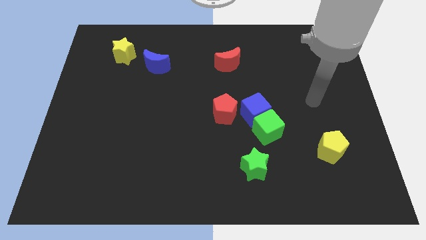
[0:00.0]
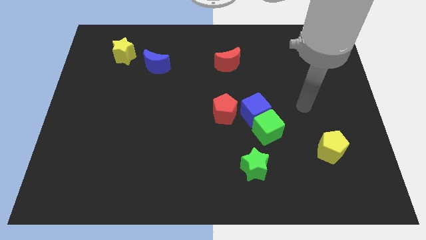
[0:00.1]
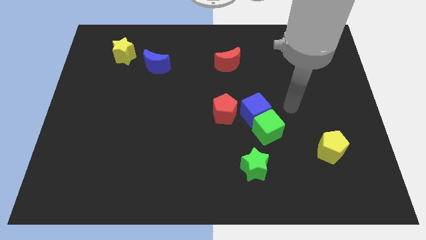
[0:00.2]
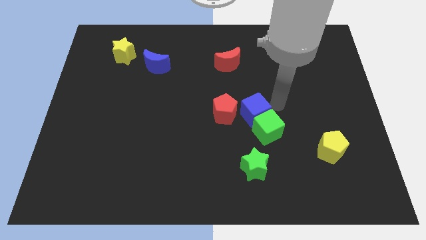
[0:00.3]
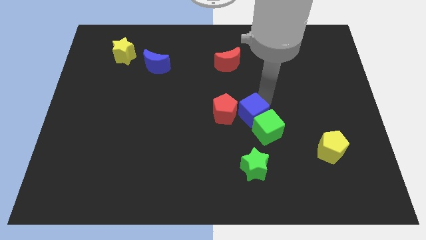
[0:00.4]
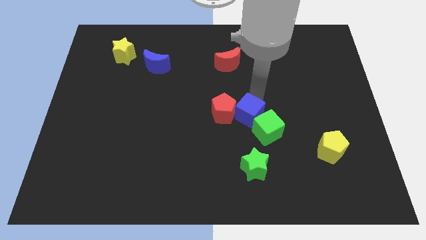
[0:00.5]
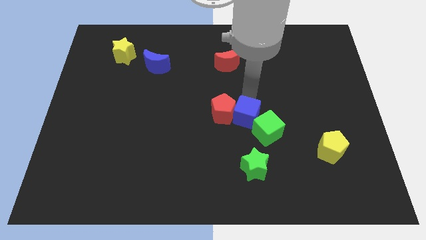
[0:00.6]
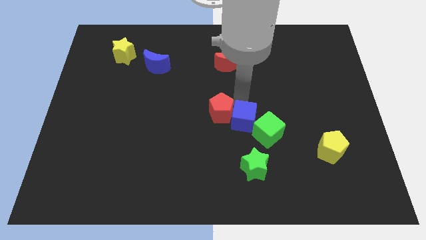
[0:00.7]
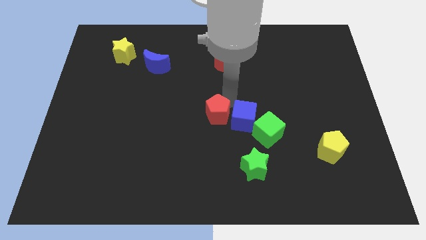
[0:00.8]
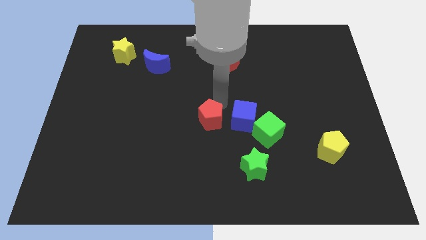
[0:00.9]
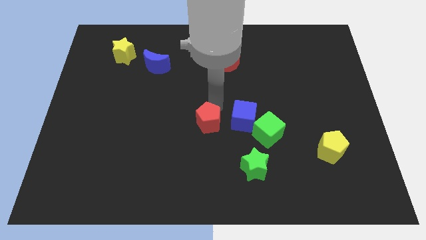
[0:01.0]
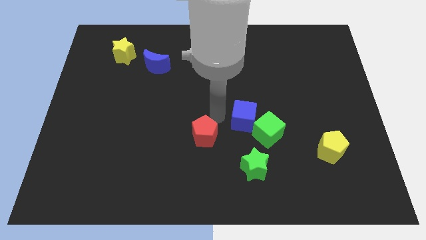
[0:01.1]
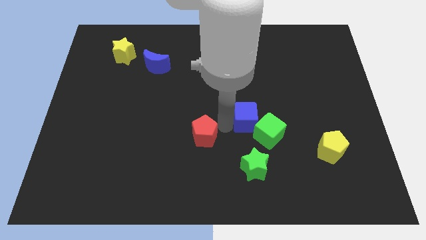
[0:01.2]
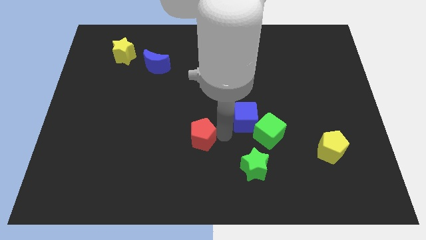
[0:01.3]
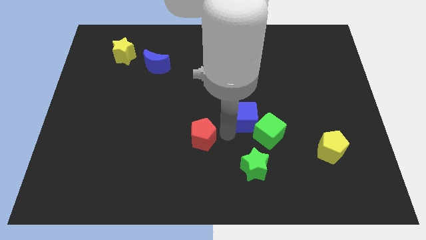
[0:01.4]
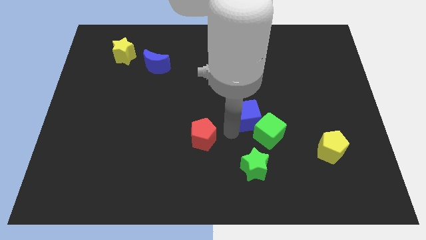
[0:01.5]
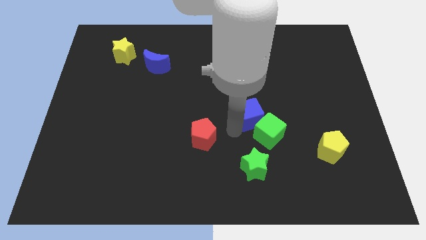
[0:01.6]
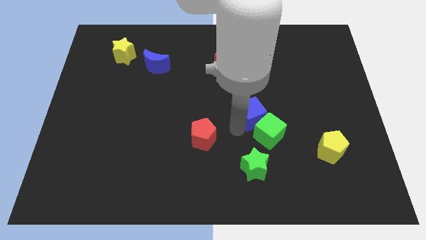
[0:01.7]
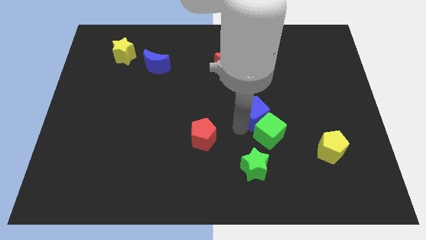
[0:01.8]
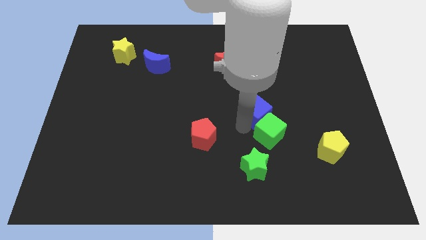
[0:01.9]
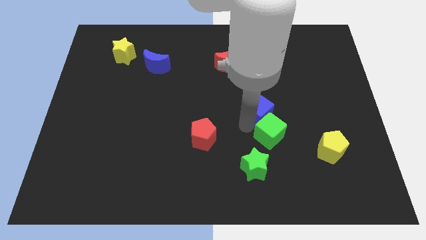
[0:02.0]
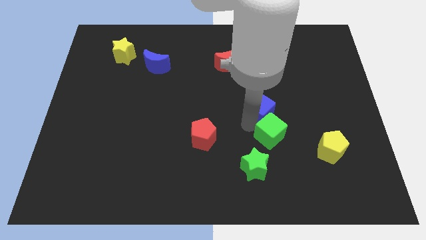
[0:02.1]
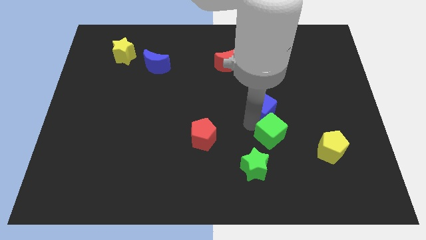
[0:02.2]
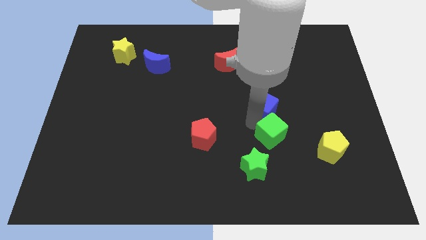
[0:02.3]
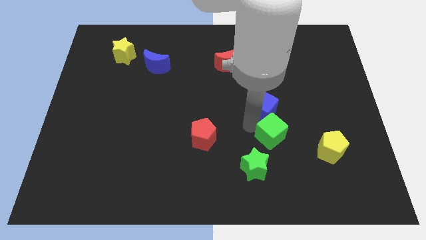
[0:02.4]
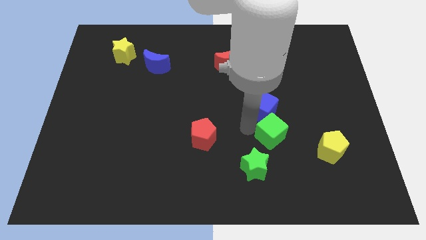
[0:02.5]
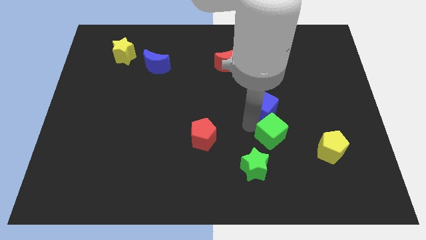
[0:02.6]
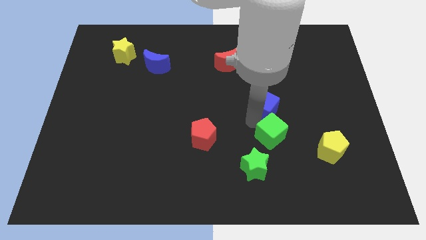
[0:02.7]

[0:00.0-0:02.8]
move the blue cube away from the green cube and red pentagon

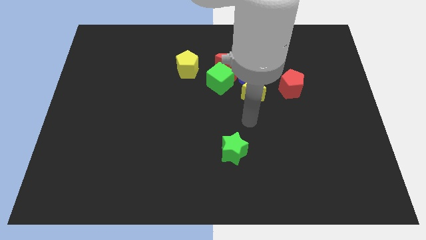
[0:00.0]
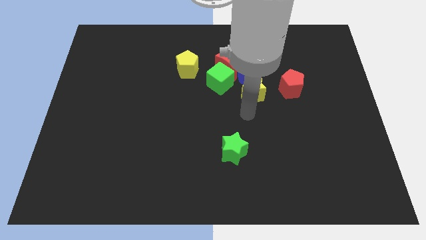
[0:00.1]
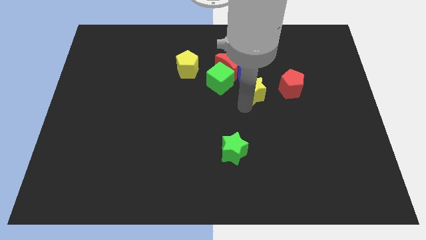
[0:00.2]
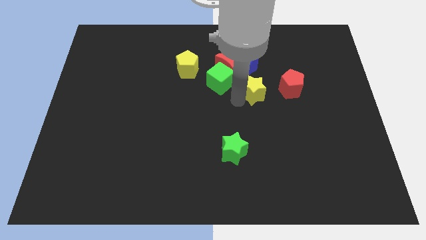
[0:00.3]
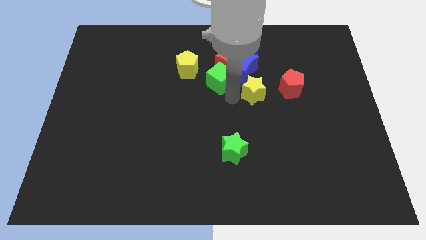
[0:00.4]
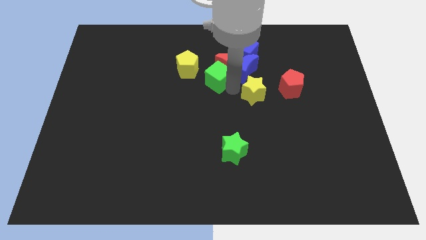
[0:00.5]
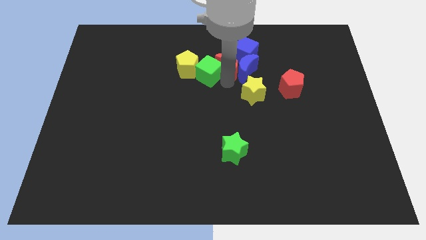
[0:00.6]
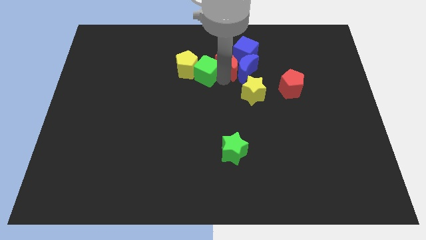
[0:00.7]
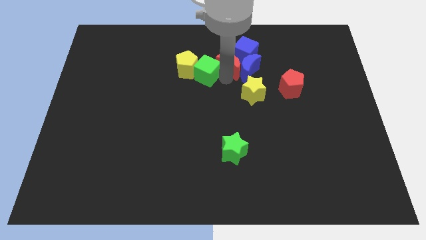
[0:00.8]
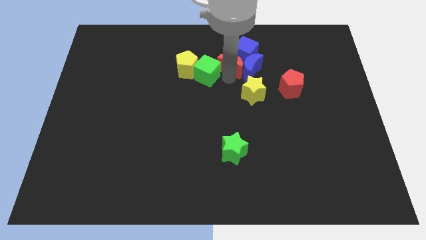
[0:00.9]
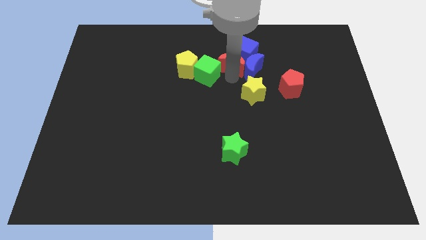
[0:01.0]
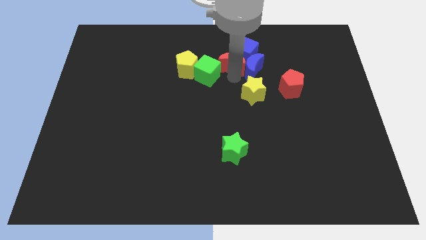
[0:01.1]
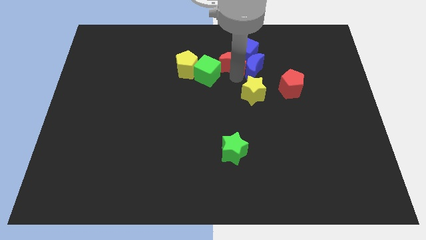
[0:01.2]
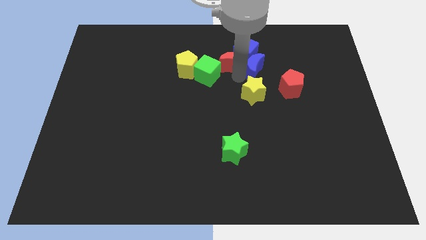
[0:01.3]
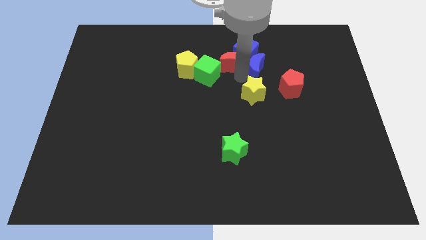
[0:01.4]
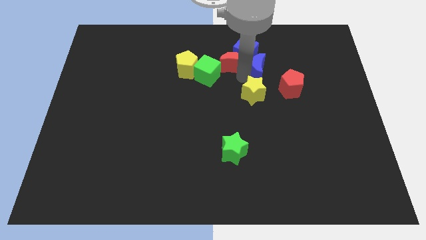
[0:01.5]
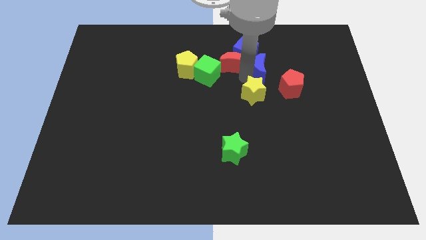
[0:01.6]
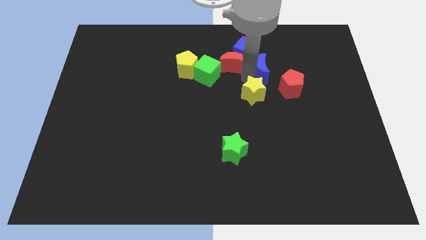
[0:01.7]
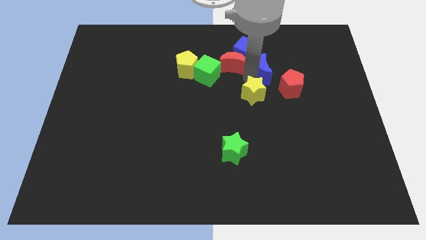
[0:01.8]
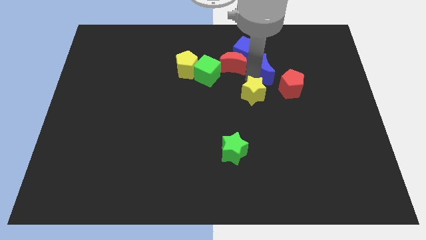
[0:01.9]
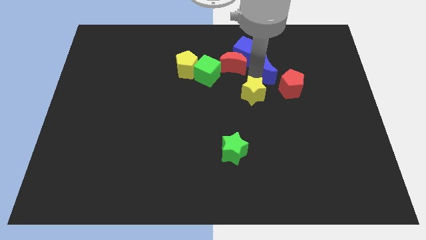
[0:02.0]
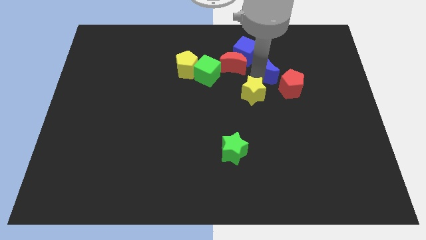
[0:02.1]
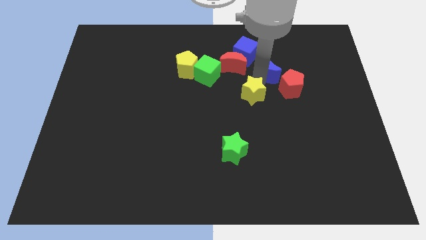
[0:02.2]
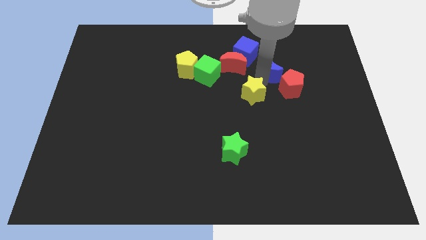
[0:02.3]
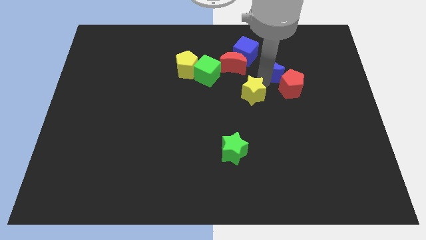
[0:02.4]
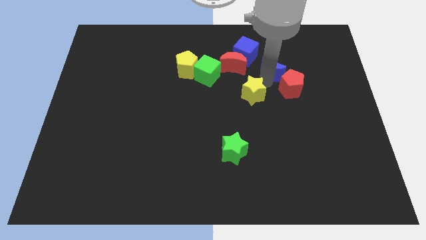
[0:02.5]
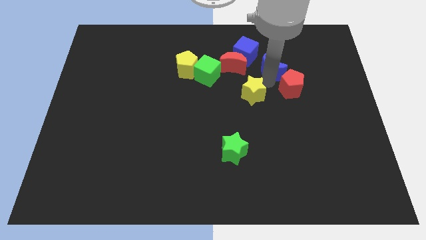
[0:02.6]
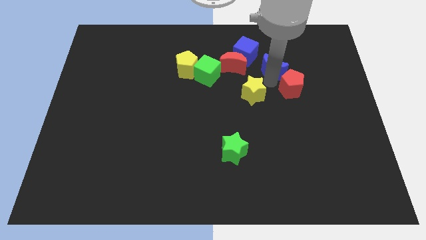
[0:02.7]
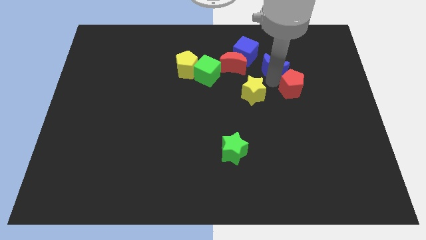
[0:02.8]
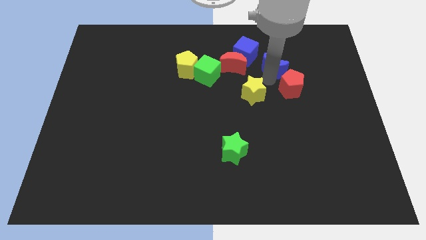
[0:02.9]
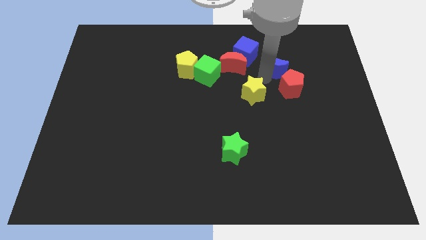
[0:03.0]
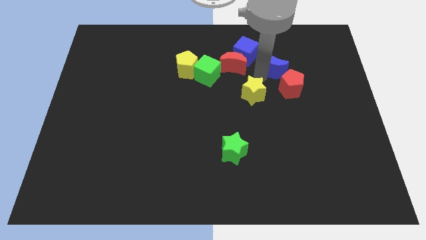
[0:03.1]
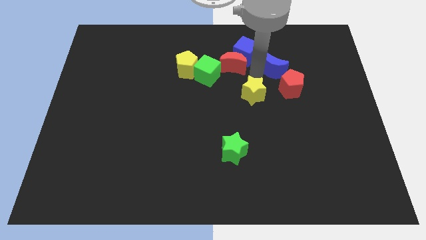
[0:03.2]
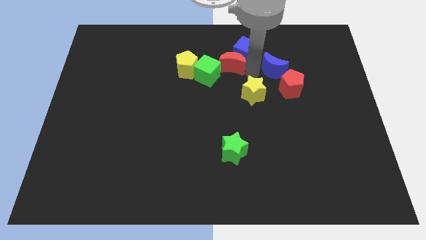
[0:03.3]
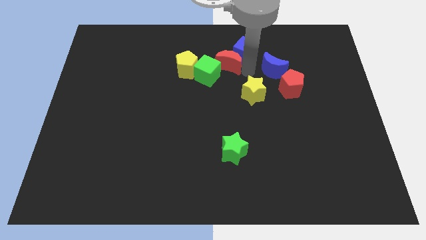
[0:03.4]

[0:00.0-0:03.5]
move the blue moon away from the group of blocks

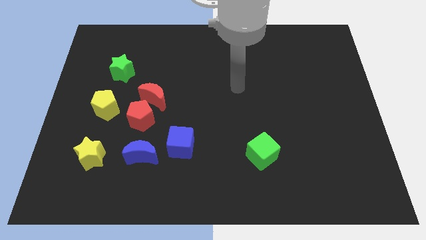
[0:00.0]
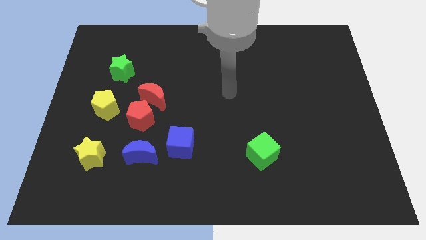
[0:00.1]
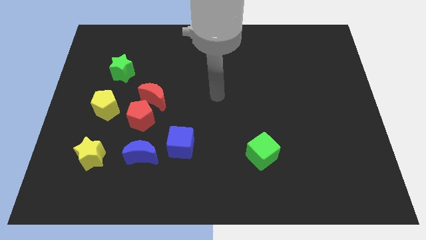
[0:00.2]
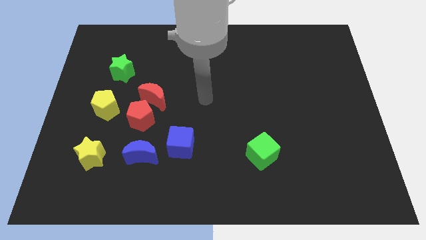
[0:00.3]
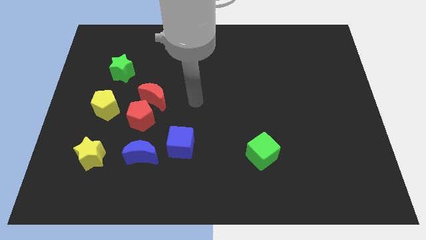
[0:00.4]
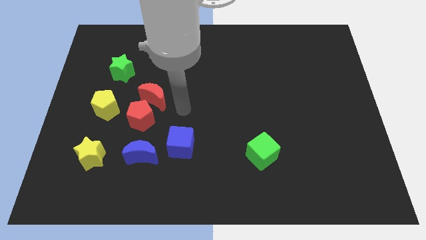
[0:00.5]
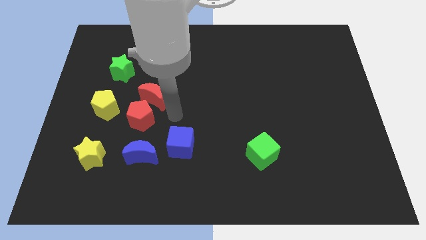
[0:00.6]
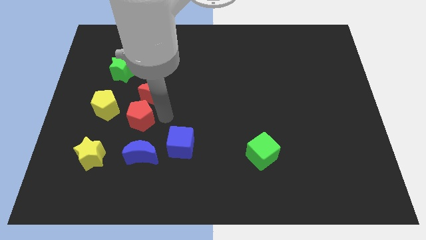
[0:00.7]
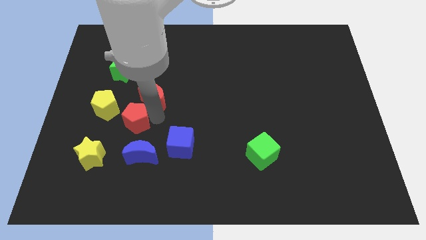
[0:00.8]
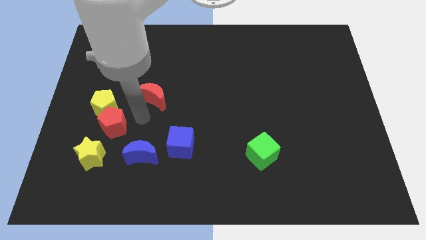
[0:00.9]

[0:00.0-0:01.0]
separate the red moon from the red pentagon

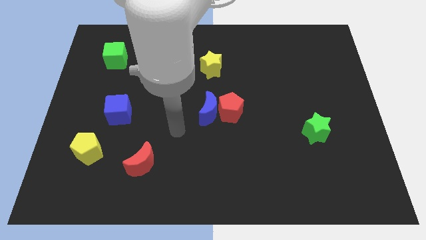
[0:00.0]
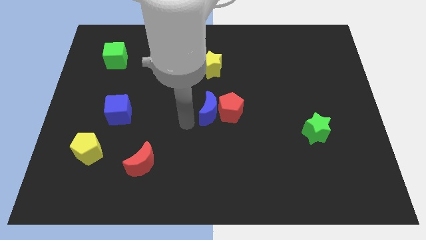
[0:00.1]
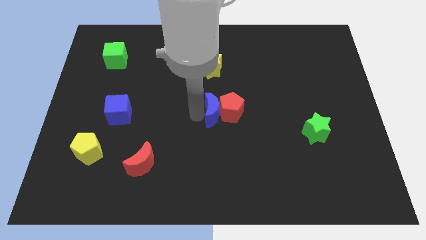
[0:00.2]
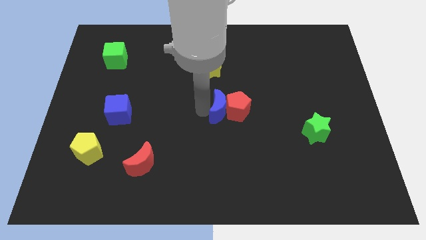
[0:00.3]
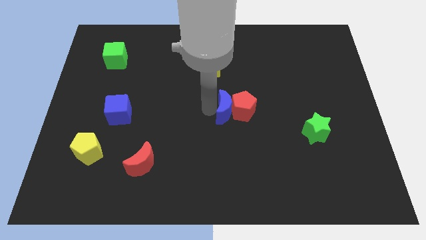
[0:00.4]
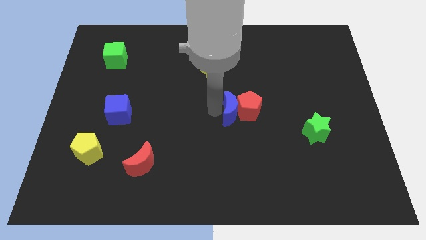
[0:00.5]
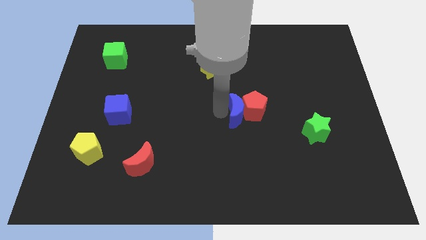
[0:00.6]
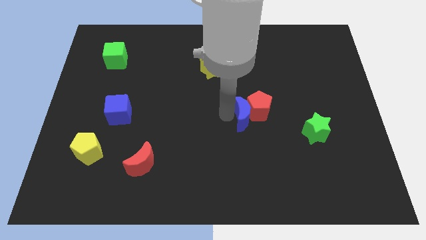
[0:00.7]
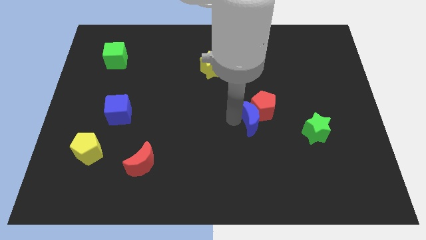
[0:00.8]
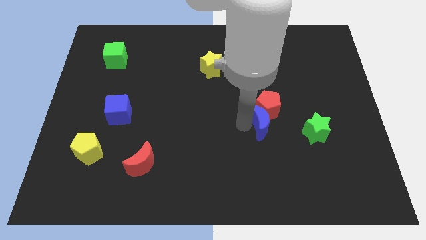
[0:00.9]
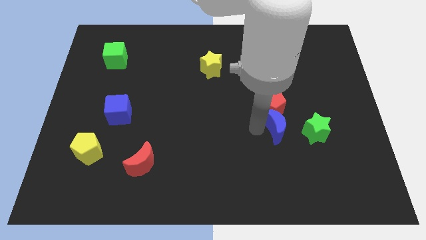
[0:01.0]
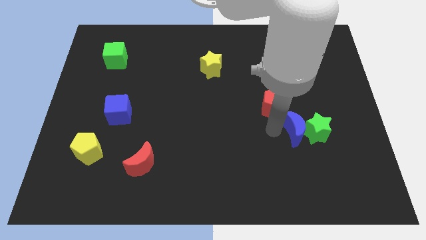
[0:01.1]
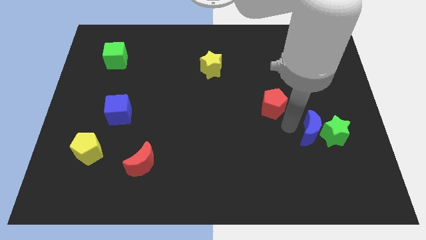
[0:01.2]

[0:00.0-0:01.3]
move the red pentagon away from the blue moon

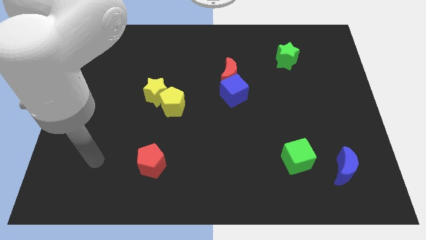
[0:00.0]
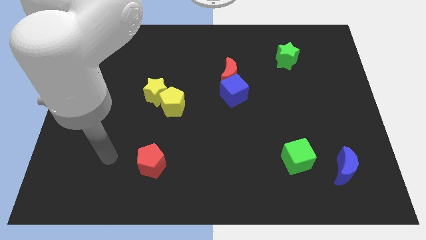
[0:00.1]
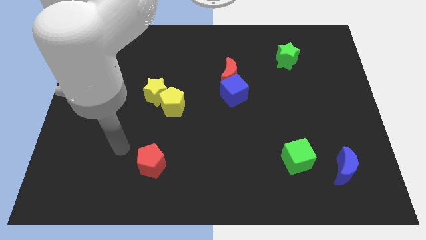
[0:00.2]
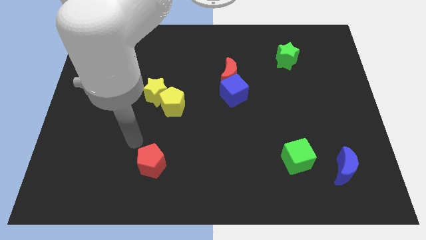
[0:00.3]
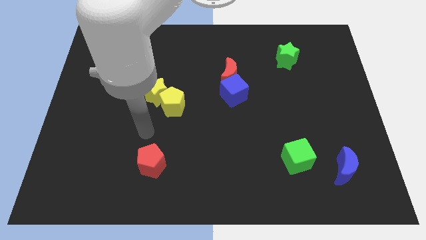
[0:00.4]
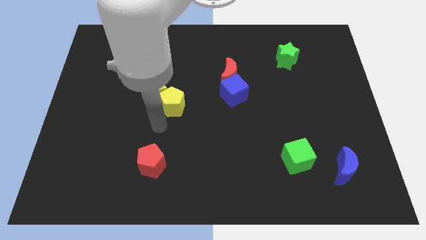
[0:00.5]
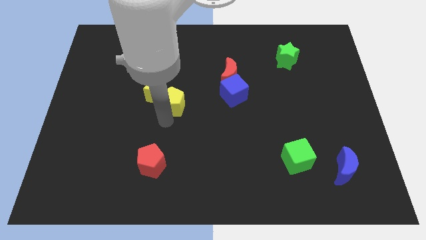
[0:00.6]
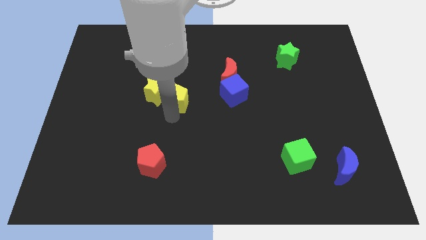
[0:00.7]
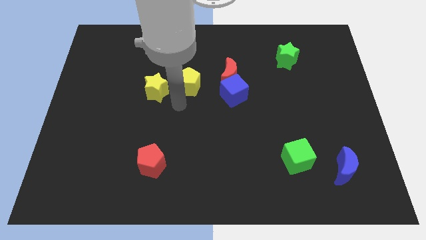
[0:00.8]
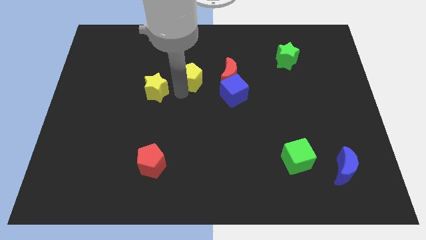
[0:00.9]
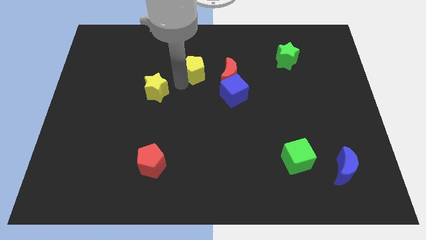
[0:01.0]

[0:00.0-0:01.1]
move the yellow star away from the yellow pentagon
